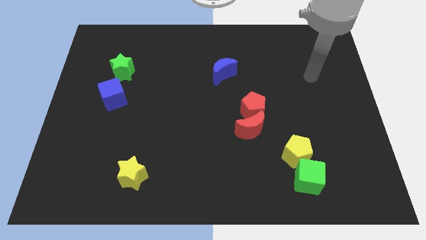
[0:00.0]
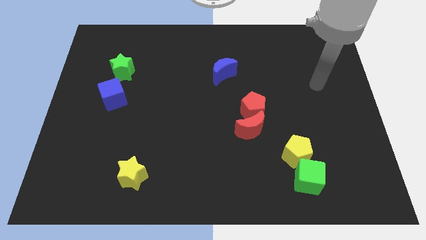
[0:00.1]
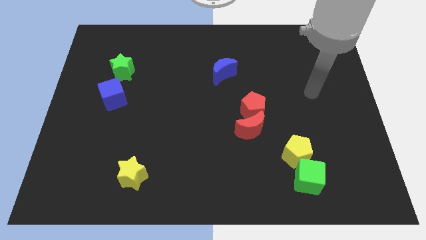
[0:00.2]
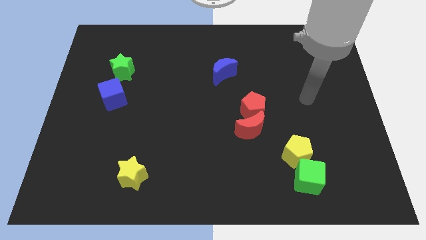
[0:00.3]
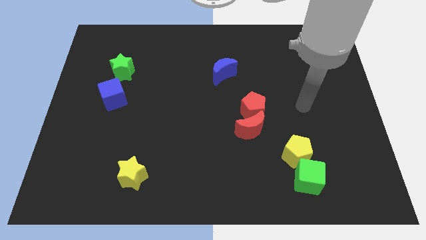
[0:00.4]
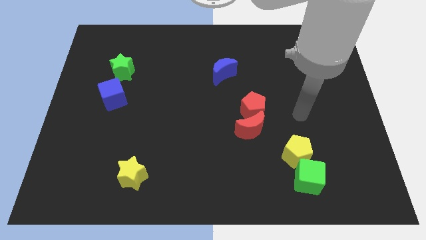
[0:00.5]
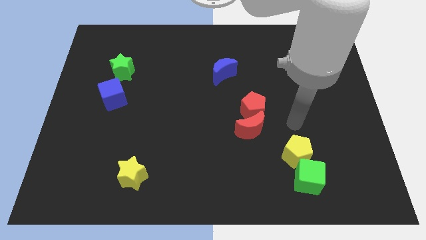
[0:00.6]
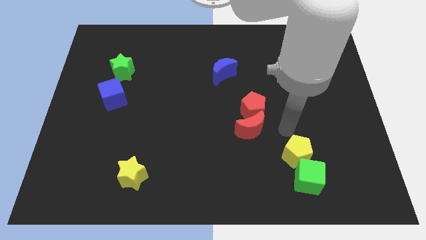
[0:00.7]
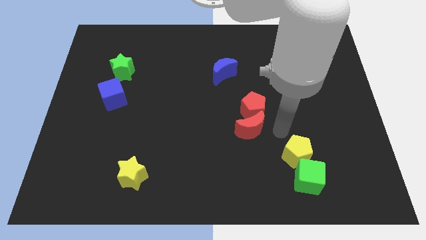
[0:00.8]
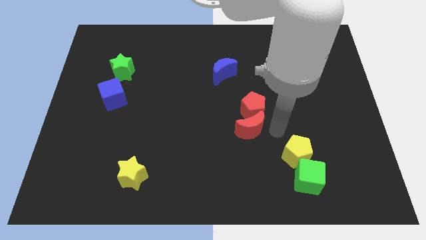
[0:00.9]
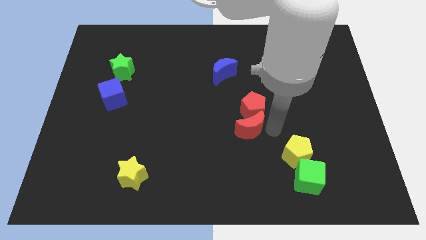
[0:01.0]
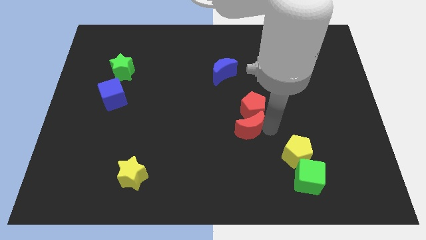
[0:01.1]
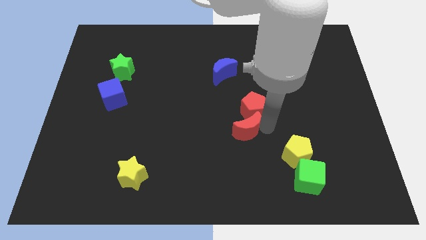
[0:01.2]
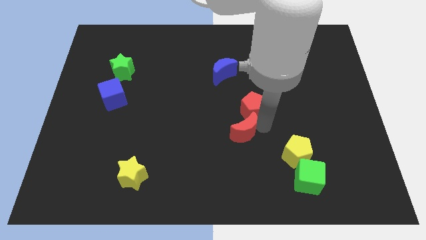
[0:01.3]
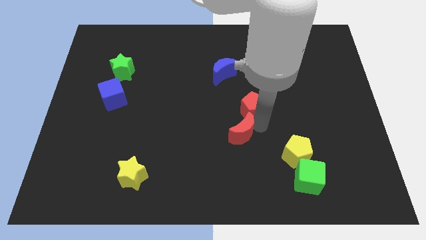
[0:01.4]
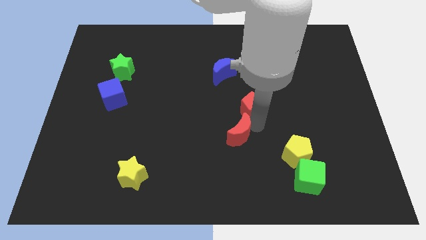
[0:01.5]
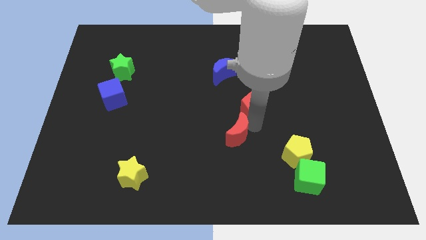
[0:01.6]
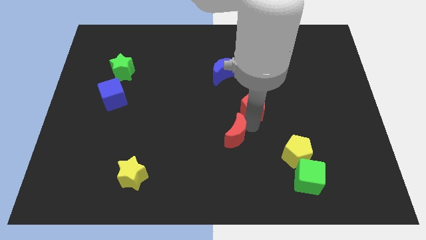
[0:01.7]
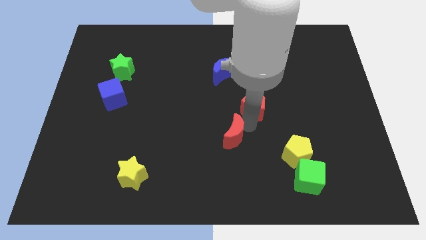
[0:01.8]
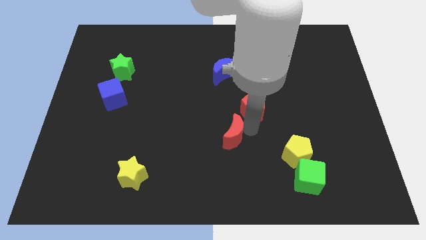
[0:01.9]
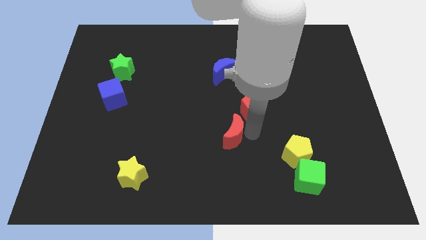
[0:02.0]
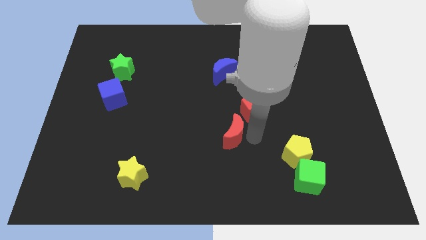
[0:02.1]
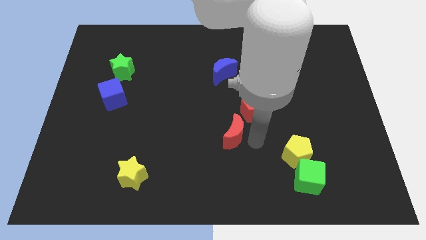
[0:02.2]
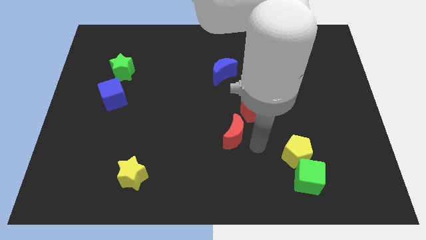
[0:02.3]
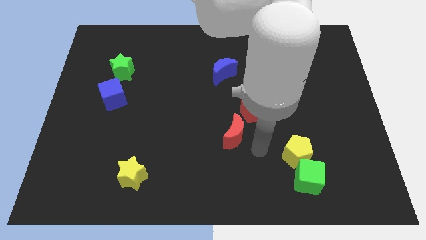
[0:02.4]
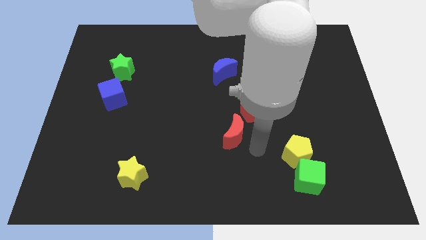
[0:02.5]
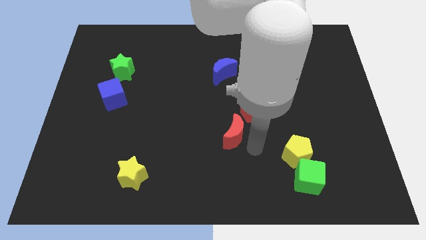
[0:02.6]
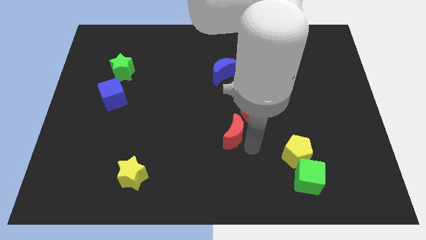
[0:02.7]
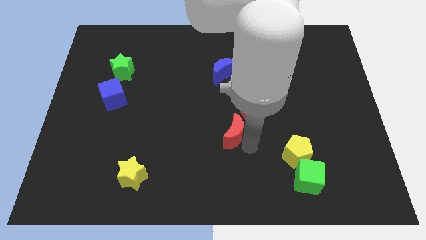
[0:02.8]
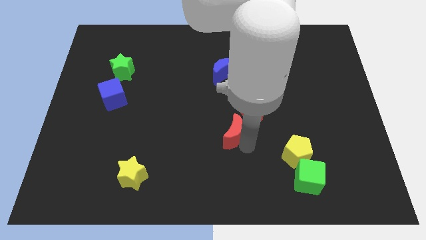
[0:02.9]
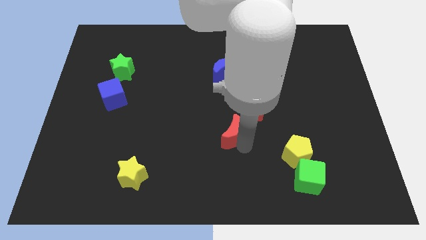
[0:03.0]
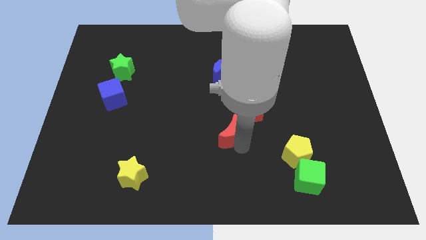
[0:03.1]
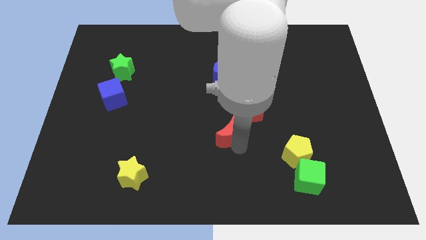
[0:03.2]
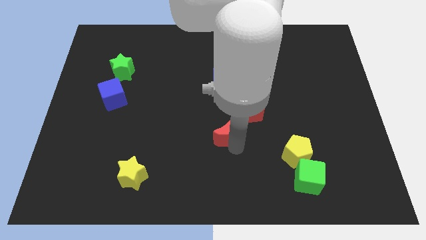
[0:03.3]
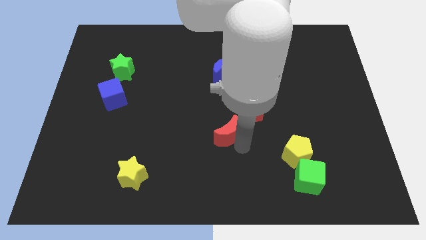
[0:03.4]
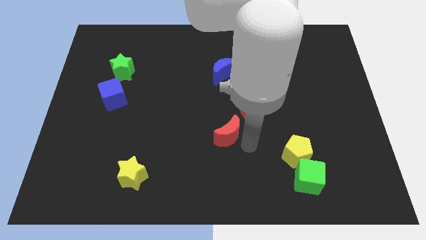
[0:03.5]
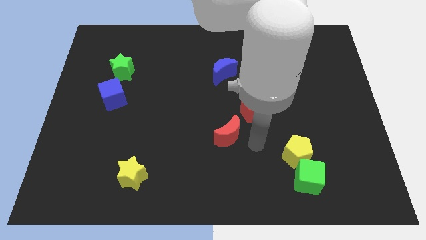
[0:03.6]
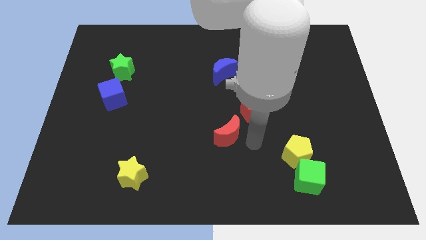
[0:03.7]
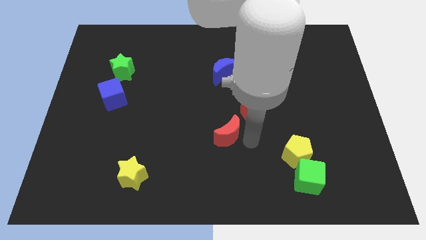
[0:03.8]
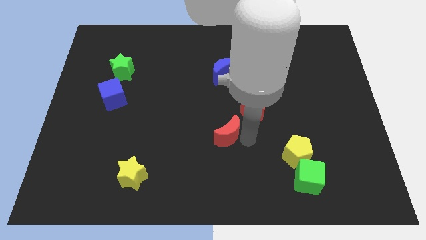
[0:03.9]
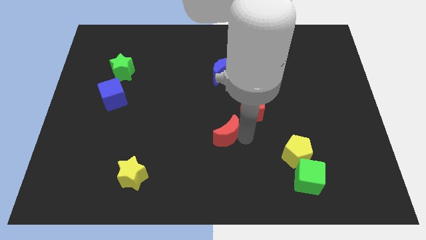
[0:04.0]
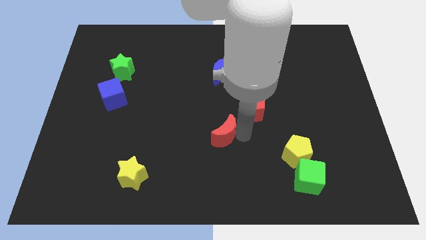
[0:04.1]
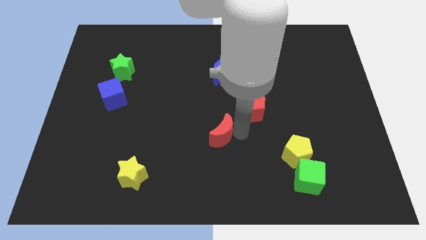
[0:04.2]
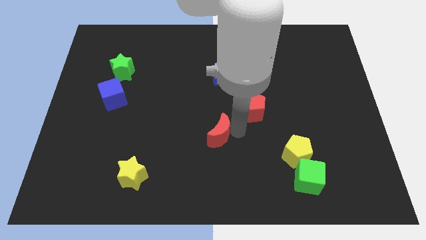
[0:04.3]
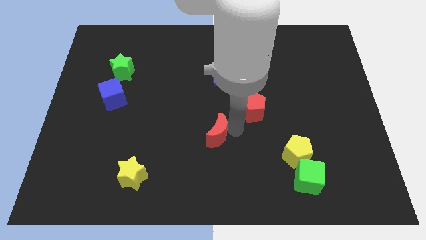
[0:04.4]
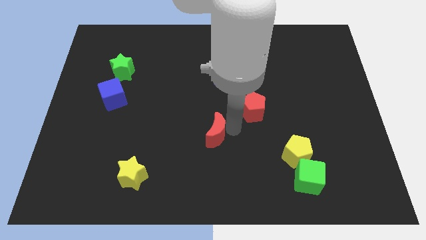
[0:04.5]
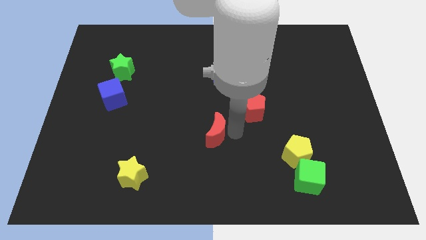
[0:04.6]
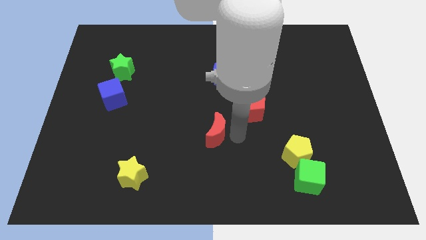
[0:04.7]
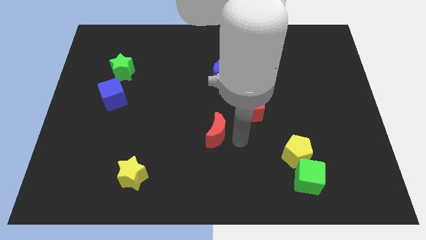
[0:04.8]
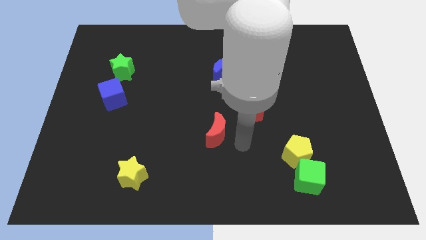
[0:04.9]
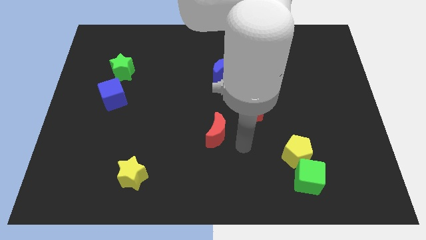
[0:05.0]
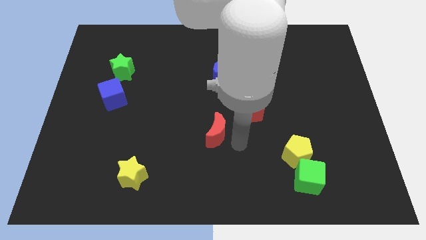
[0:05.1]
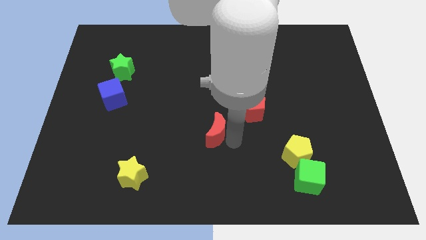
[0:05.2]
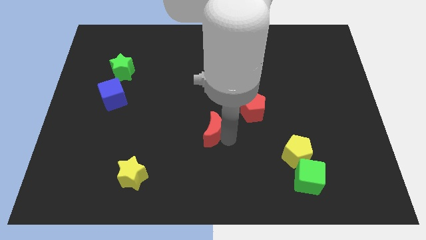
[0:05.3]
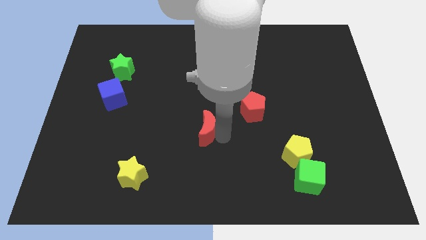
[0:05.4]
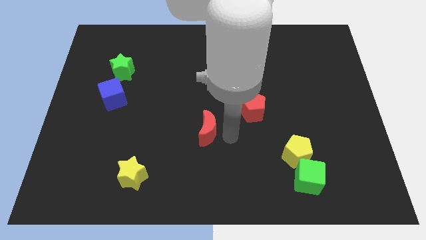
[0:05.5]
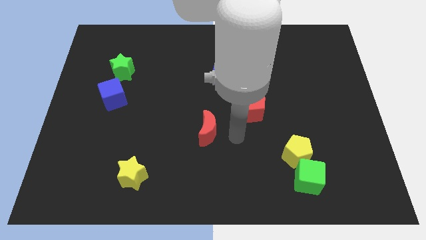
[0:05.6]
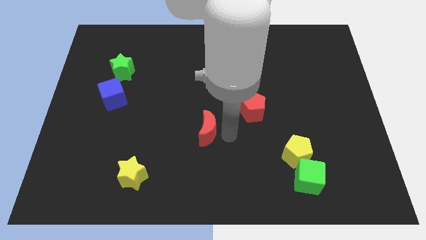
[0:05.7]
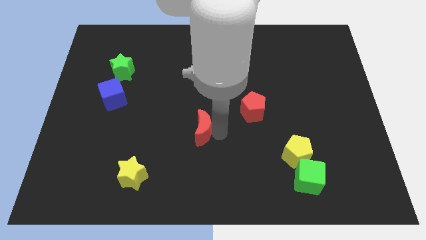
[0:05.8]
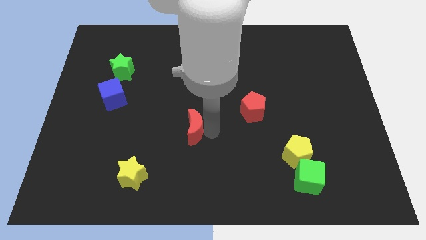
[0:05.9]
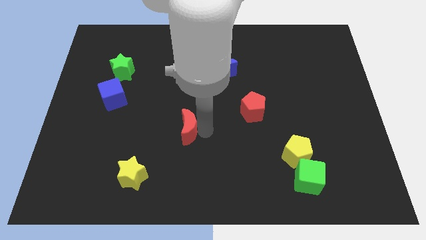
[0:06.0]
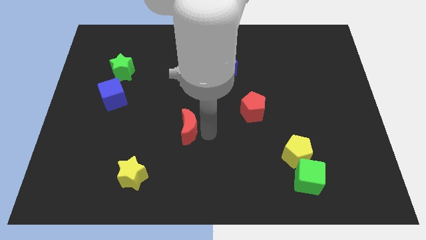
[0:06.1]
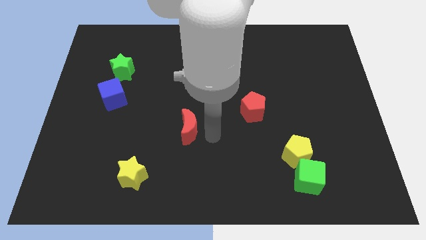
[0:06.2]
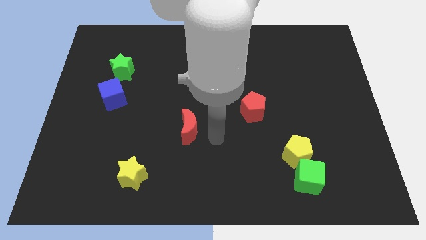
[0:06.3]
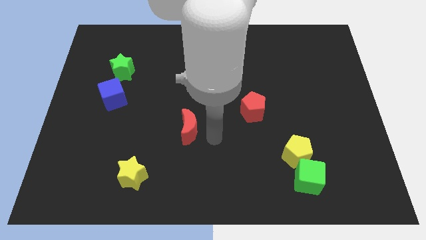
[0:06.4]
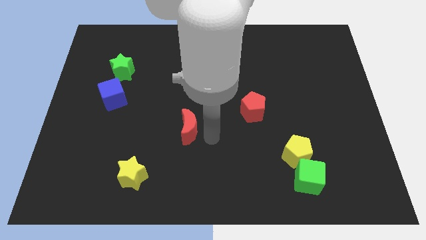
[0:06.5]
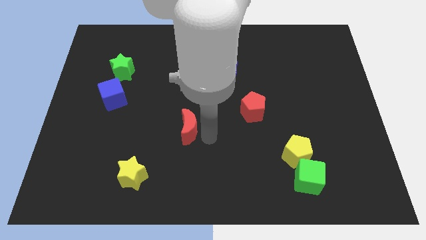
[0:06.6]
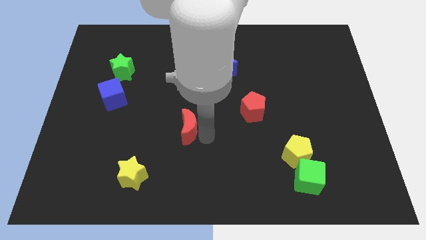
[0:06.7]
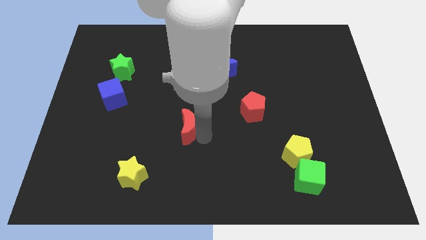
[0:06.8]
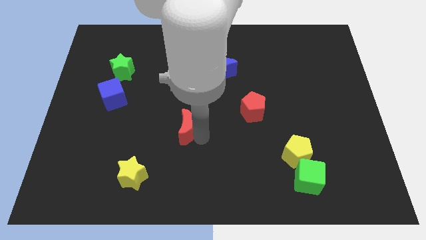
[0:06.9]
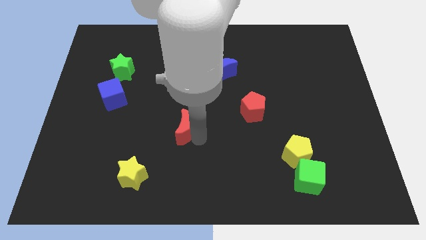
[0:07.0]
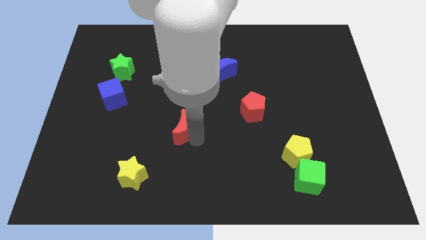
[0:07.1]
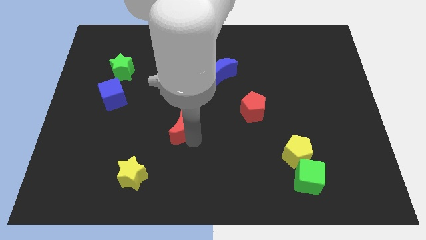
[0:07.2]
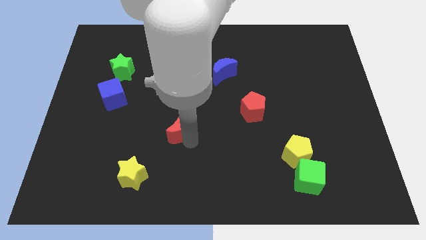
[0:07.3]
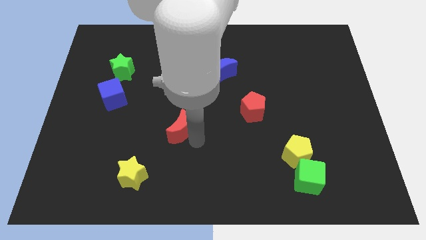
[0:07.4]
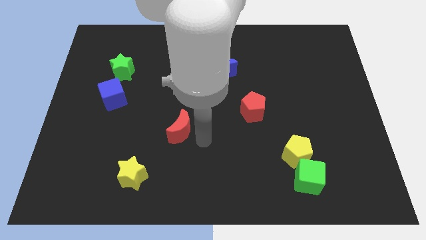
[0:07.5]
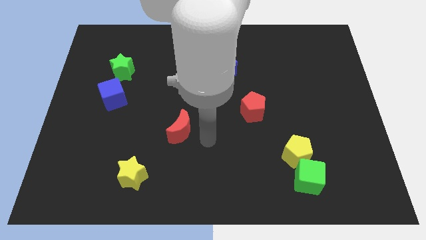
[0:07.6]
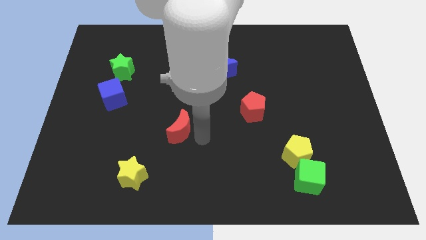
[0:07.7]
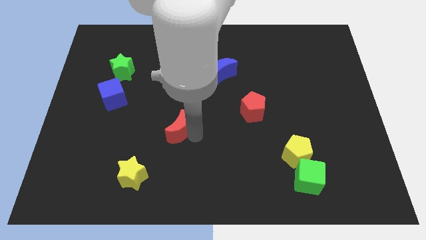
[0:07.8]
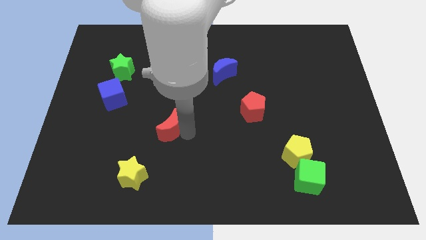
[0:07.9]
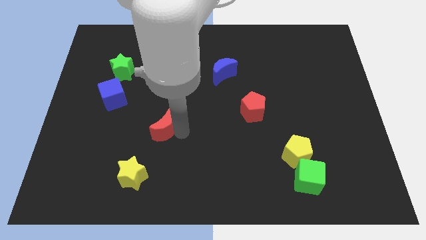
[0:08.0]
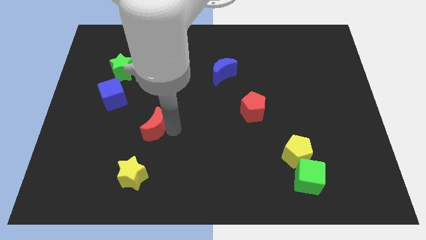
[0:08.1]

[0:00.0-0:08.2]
slide the red moon to the left

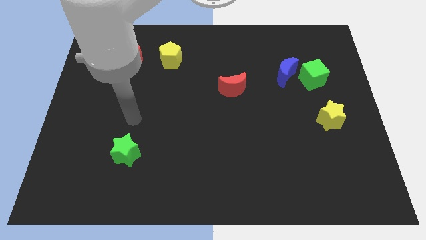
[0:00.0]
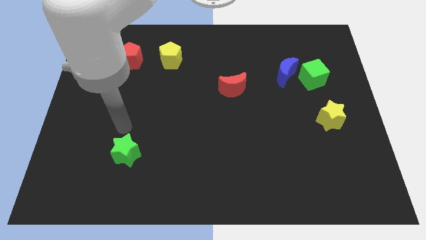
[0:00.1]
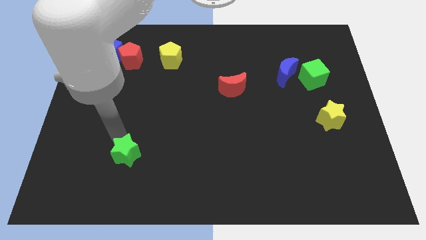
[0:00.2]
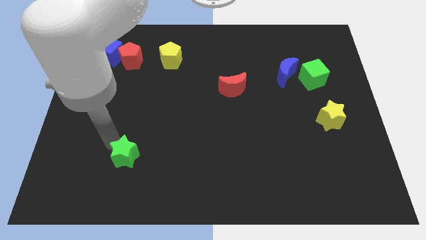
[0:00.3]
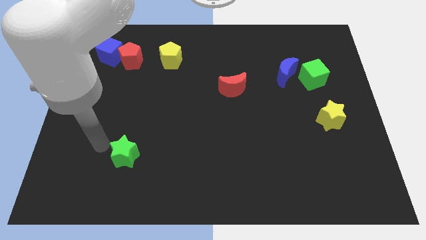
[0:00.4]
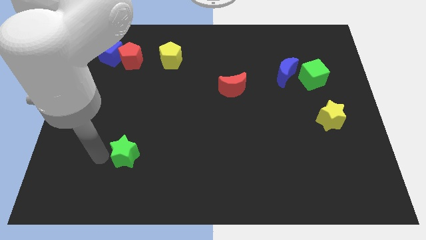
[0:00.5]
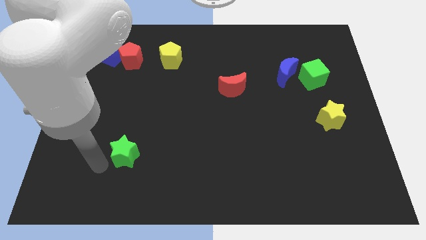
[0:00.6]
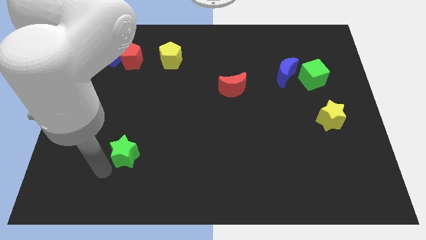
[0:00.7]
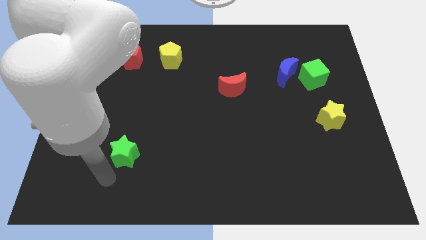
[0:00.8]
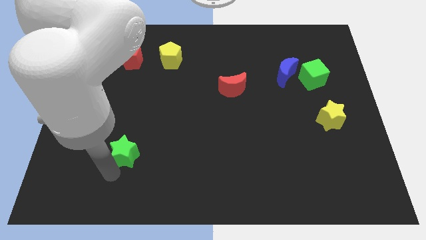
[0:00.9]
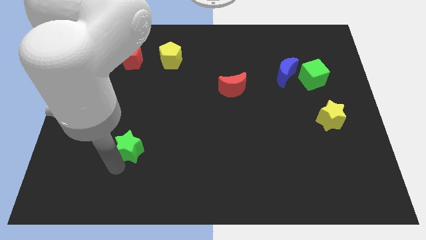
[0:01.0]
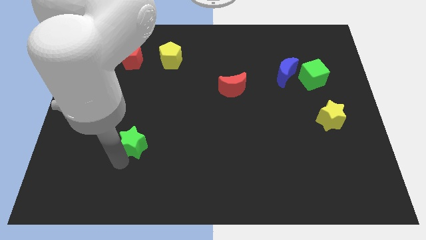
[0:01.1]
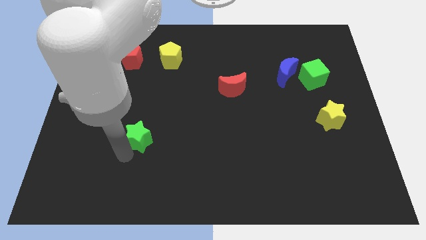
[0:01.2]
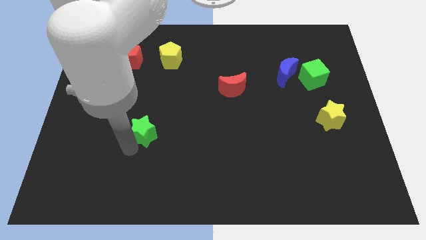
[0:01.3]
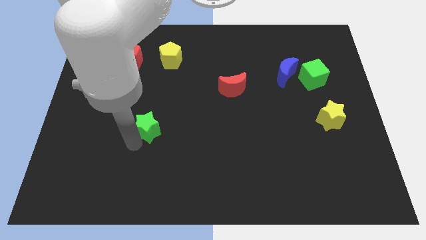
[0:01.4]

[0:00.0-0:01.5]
slide the green star upwards and then right a bit
